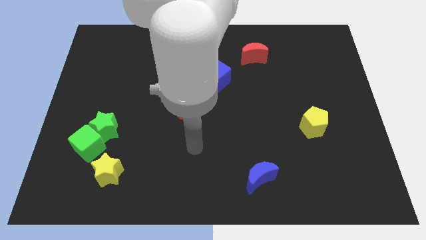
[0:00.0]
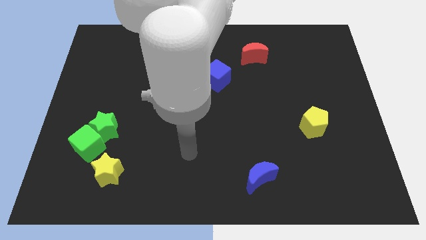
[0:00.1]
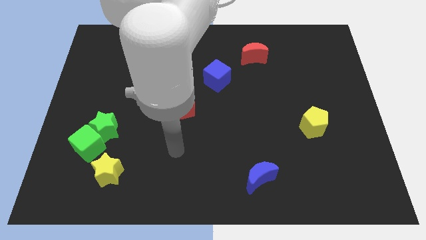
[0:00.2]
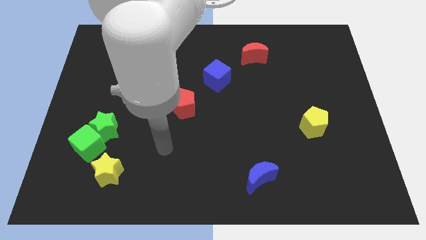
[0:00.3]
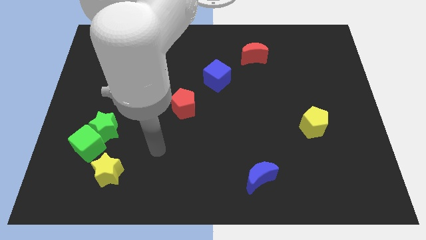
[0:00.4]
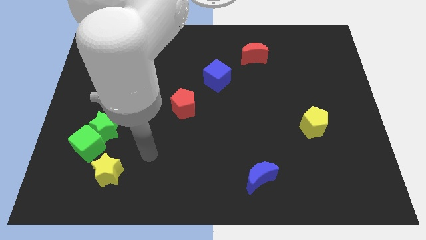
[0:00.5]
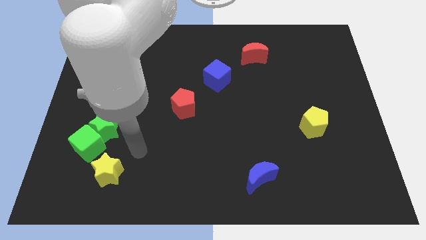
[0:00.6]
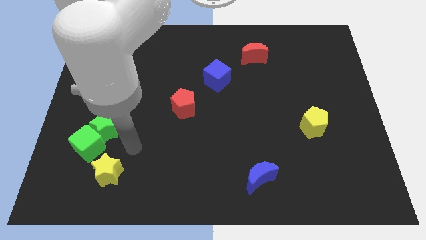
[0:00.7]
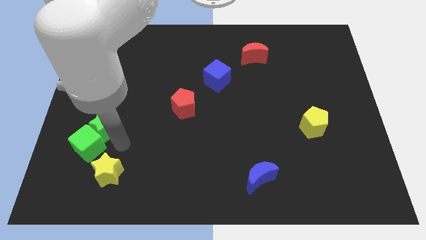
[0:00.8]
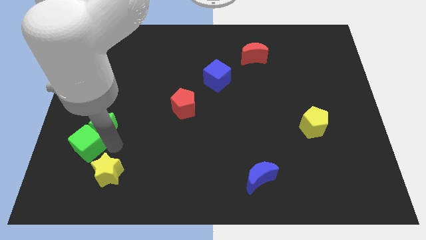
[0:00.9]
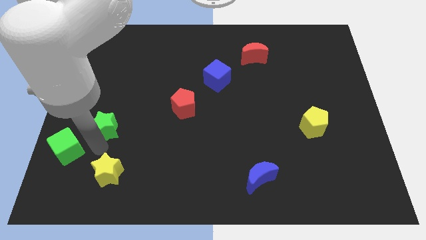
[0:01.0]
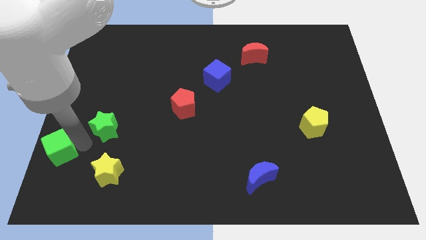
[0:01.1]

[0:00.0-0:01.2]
separate the green star from the green cube

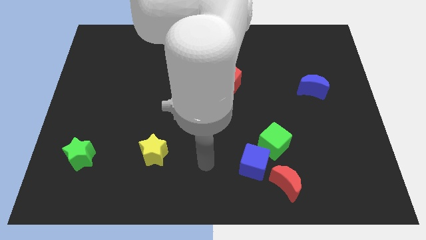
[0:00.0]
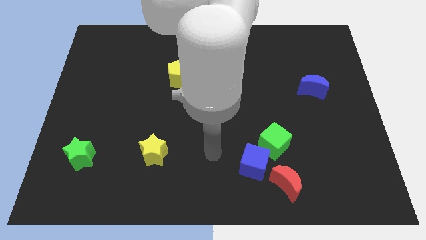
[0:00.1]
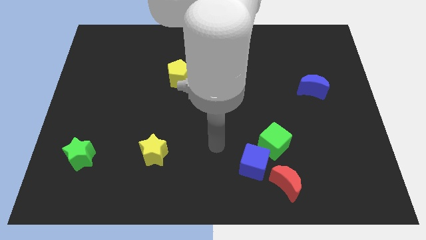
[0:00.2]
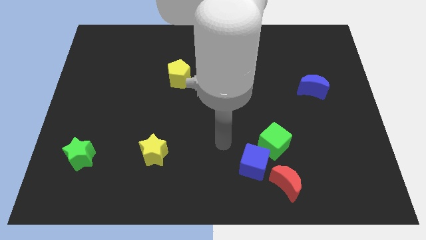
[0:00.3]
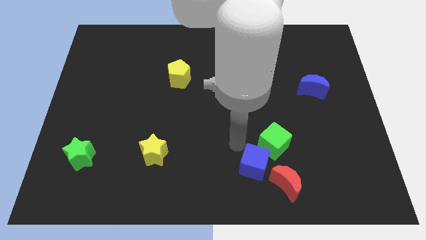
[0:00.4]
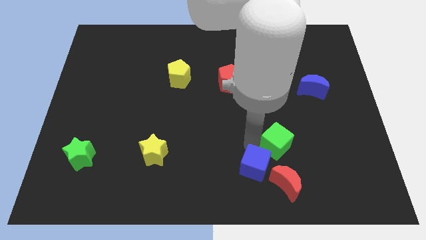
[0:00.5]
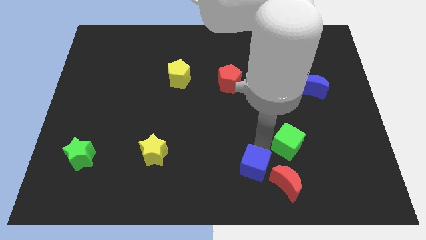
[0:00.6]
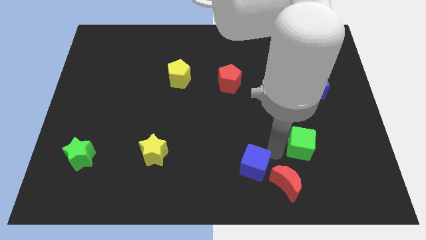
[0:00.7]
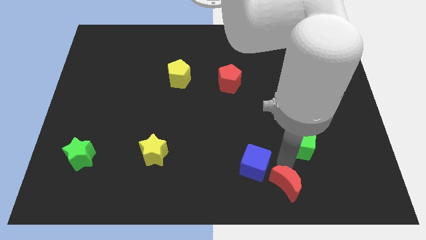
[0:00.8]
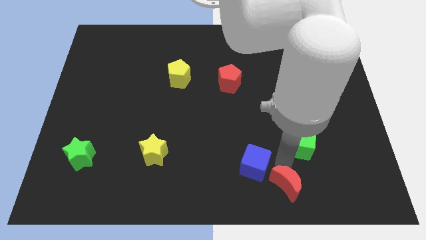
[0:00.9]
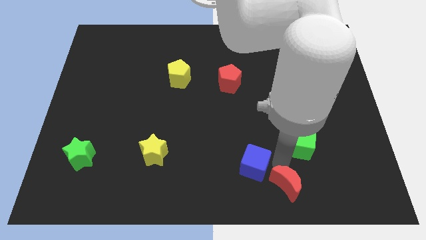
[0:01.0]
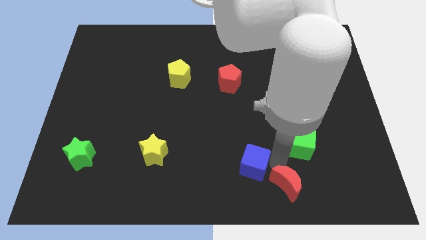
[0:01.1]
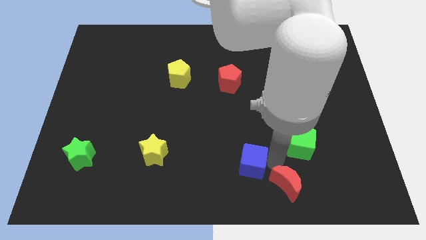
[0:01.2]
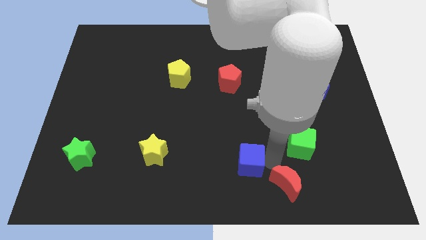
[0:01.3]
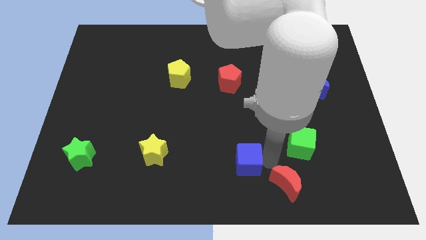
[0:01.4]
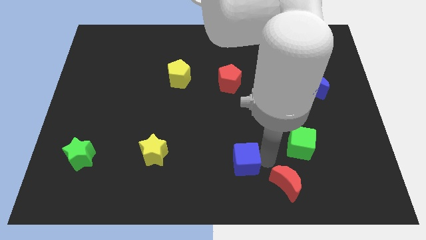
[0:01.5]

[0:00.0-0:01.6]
separate the blue cube from the green cube and red moon

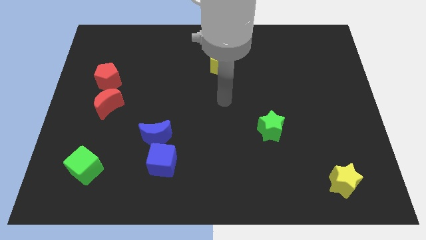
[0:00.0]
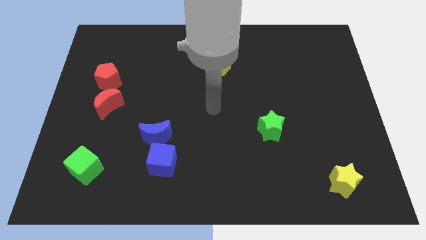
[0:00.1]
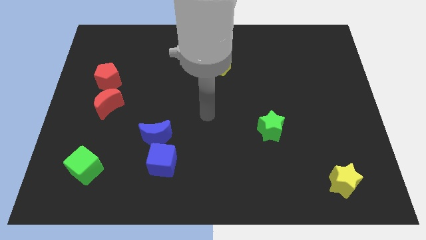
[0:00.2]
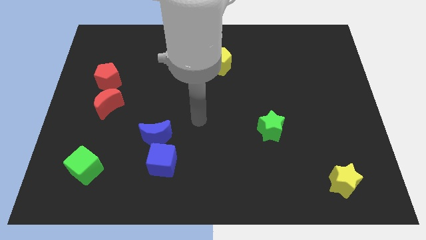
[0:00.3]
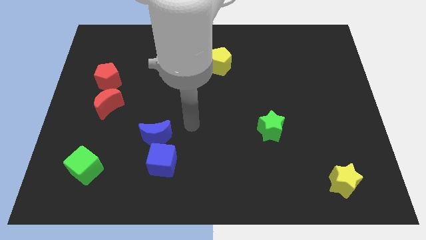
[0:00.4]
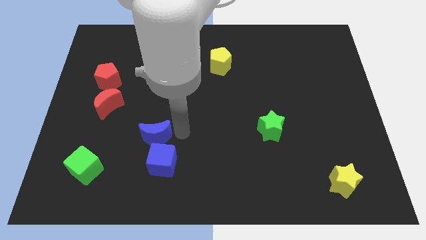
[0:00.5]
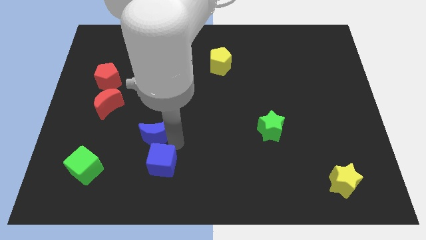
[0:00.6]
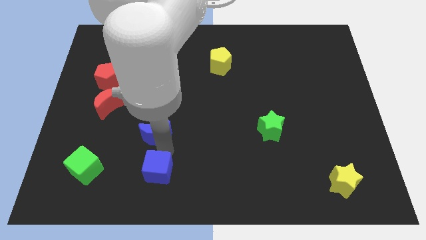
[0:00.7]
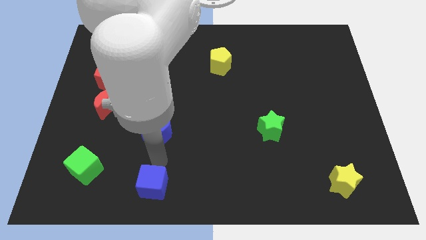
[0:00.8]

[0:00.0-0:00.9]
pull the blue moon apart from the blue cube

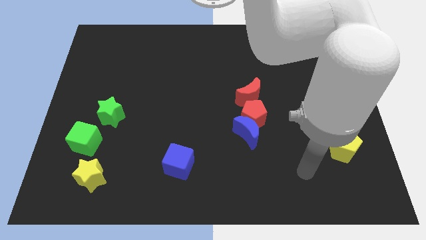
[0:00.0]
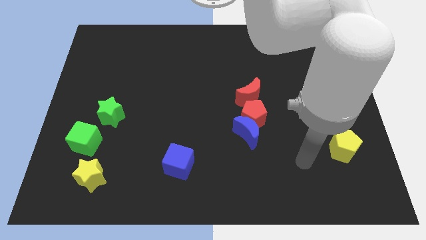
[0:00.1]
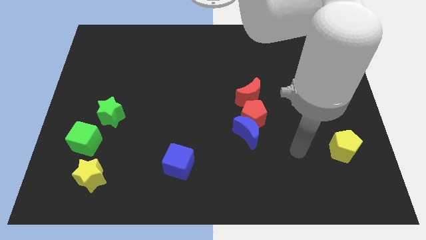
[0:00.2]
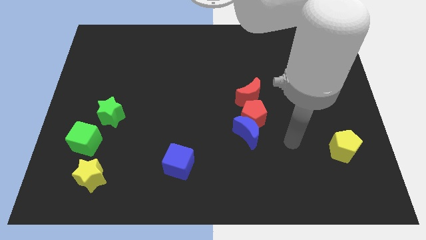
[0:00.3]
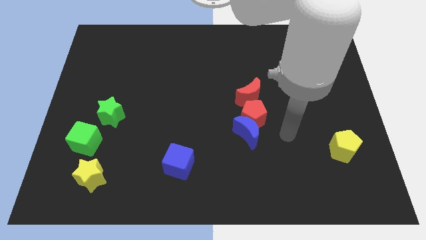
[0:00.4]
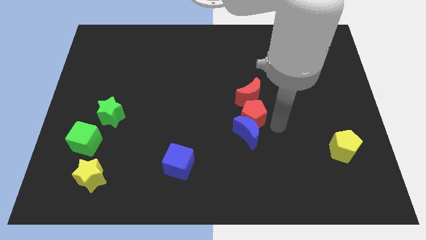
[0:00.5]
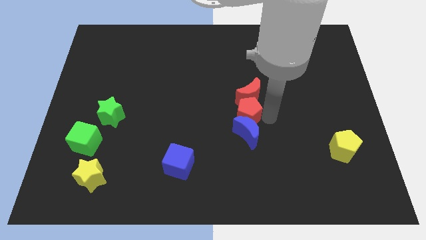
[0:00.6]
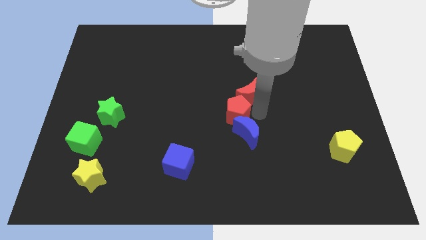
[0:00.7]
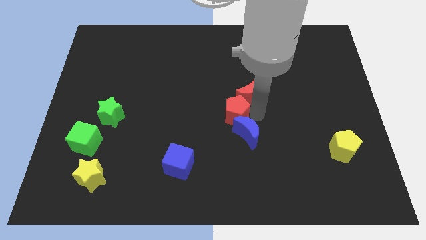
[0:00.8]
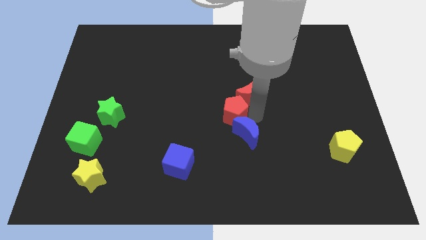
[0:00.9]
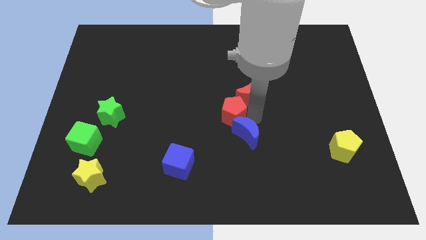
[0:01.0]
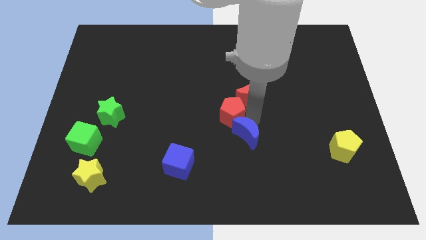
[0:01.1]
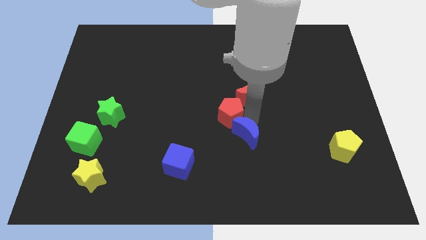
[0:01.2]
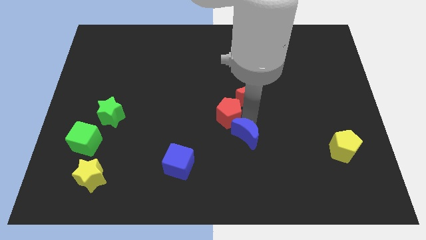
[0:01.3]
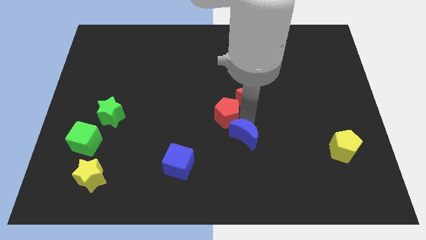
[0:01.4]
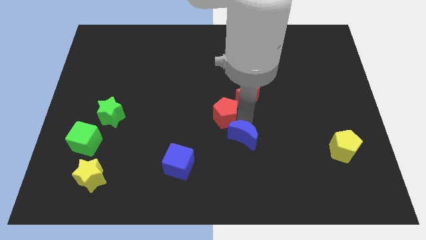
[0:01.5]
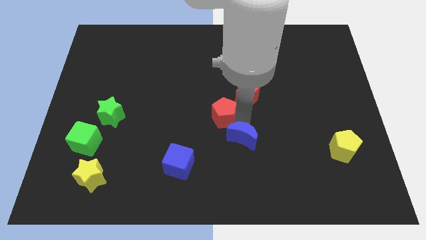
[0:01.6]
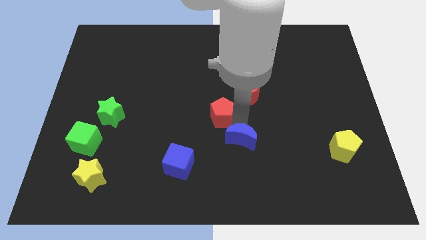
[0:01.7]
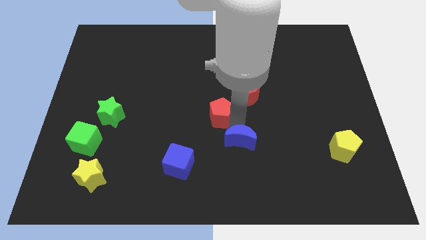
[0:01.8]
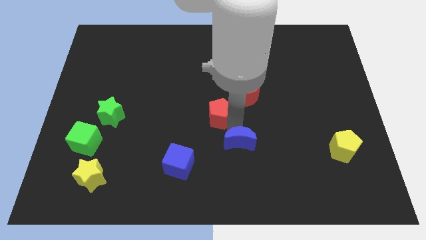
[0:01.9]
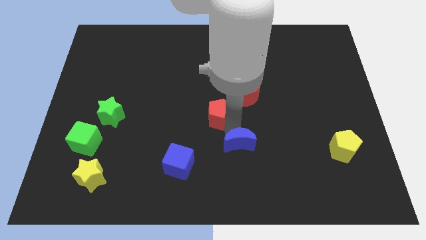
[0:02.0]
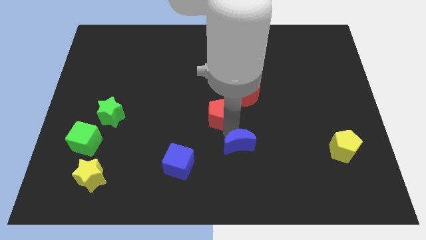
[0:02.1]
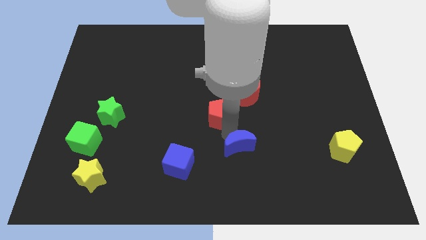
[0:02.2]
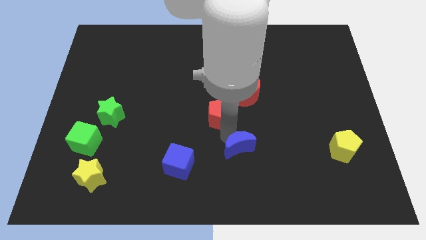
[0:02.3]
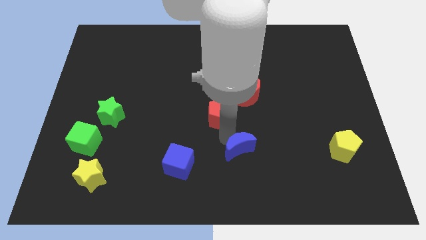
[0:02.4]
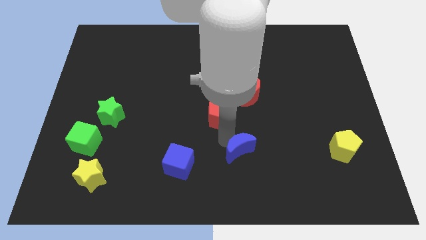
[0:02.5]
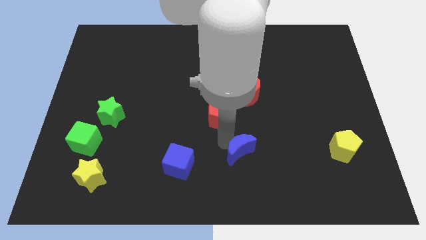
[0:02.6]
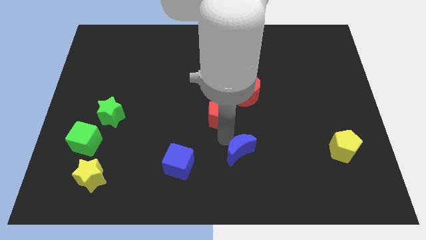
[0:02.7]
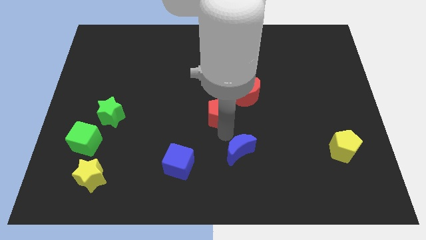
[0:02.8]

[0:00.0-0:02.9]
move the blue moon away from the red pentagon

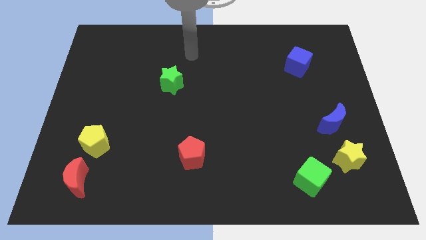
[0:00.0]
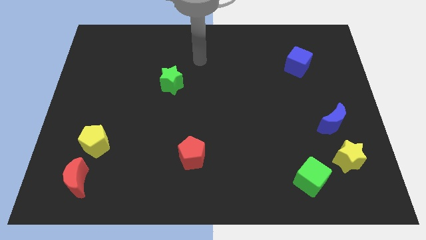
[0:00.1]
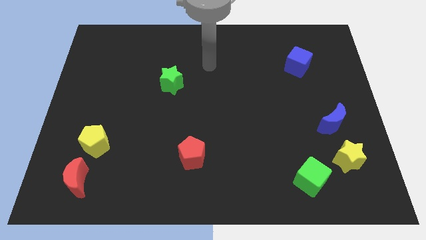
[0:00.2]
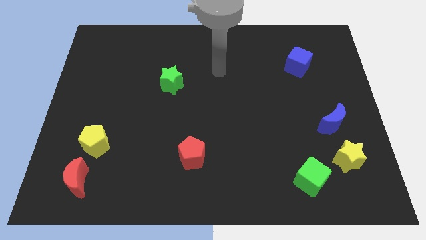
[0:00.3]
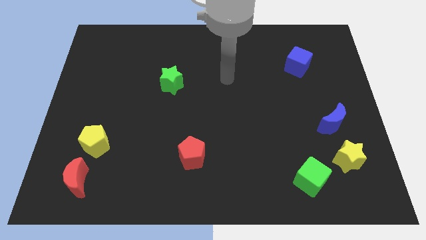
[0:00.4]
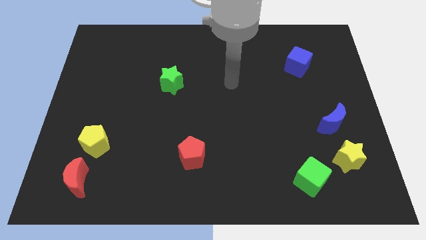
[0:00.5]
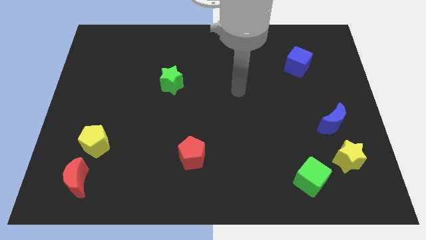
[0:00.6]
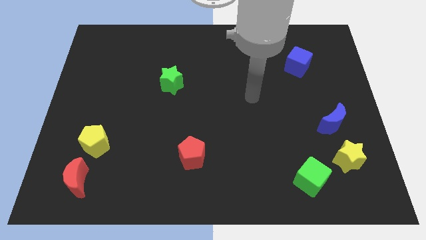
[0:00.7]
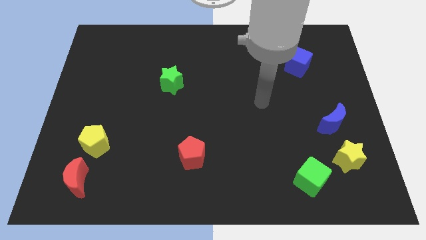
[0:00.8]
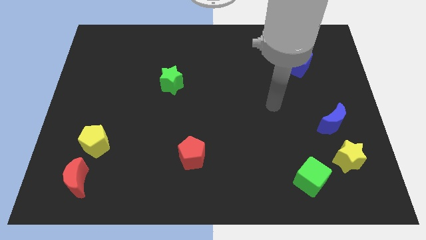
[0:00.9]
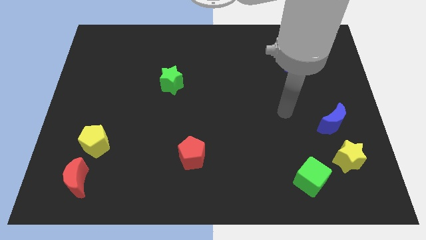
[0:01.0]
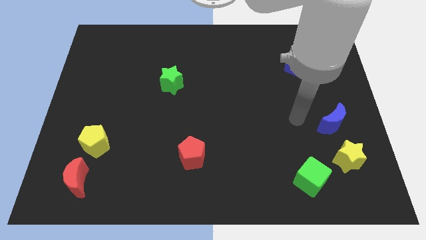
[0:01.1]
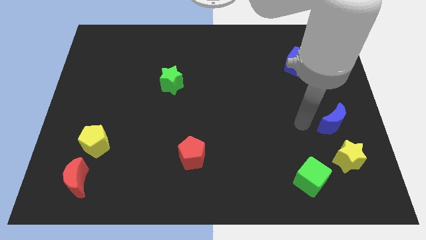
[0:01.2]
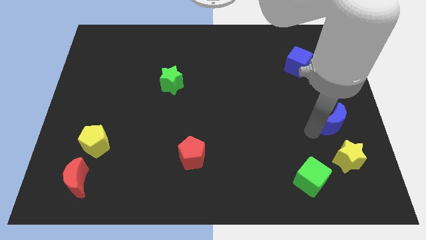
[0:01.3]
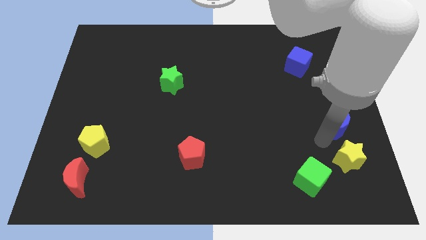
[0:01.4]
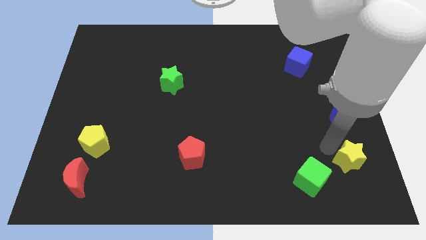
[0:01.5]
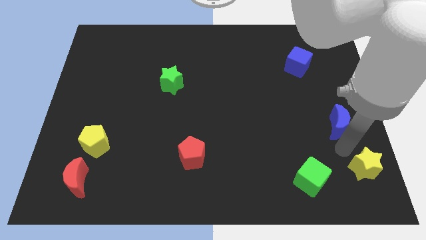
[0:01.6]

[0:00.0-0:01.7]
pull the blue moon apart from the yellow star

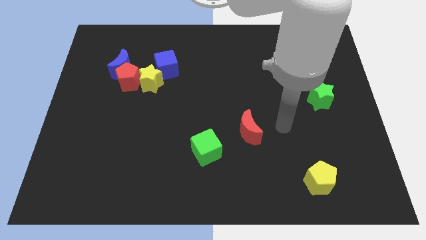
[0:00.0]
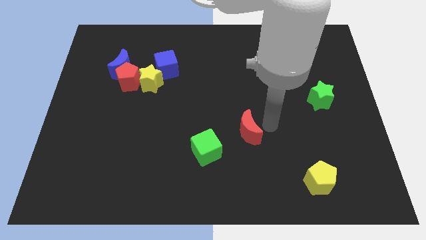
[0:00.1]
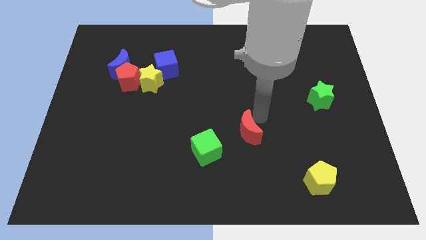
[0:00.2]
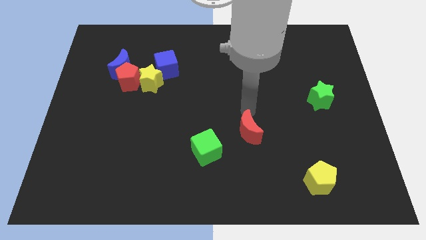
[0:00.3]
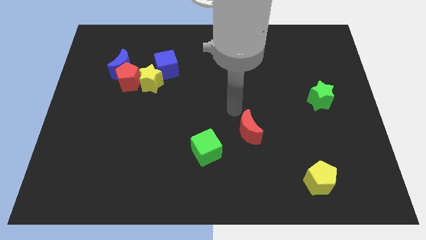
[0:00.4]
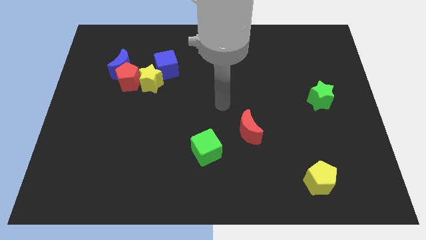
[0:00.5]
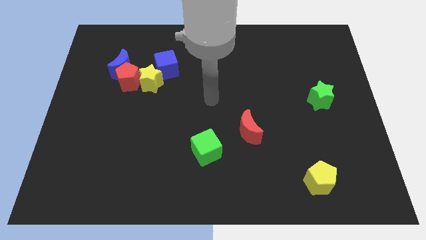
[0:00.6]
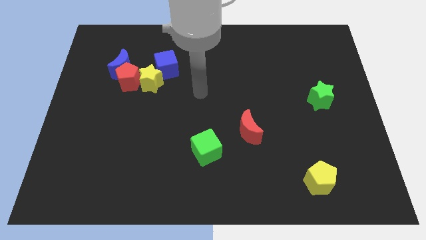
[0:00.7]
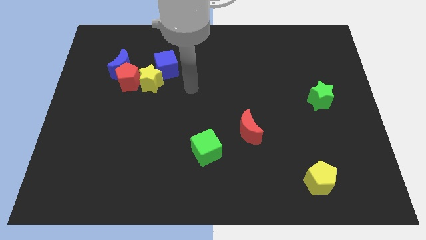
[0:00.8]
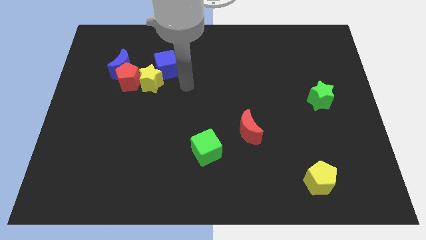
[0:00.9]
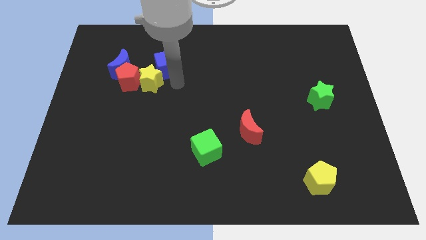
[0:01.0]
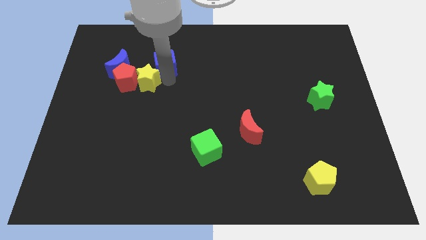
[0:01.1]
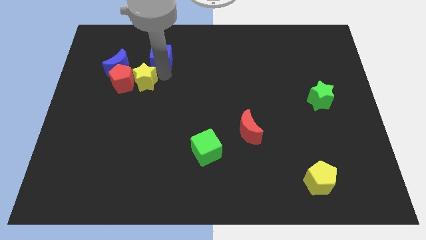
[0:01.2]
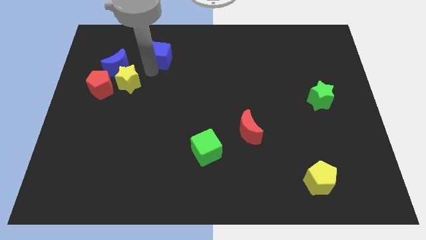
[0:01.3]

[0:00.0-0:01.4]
move the red pentagon away from the group
